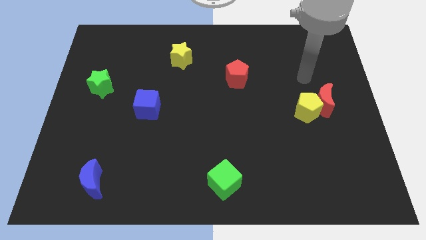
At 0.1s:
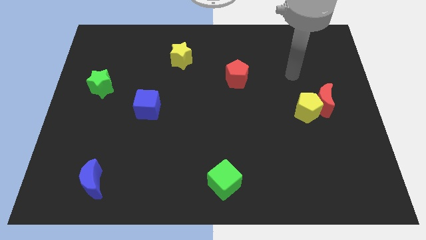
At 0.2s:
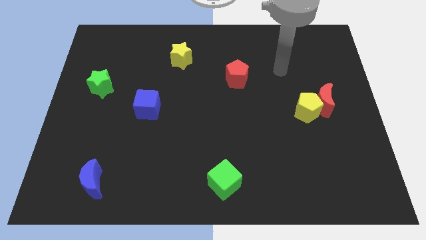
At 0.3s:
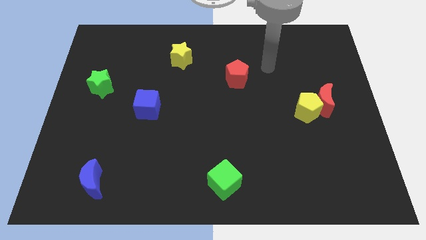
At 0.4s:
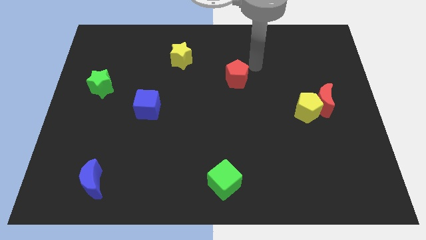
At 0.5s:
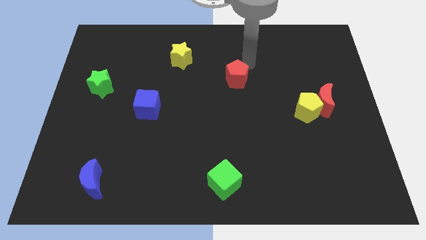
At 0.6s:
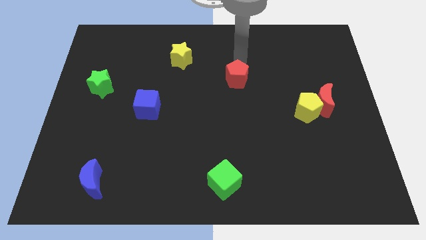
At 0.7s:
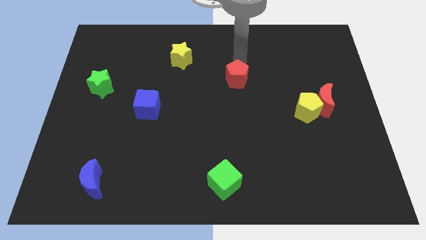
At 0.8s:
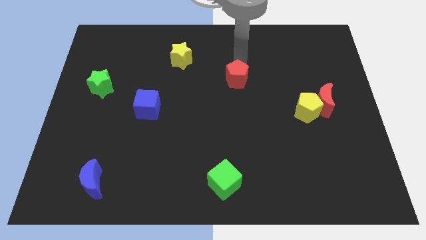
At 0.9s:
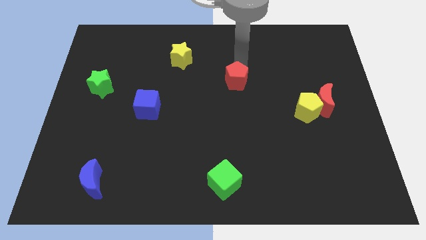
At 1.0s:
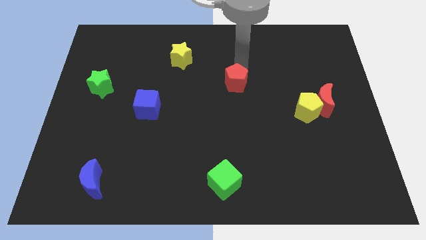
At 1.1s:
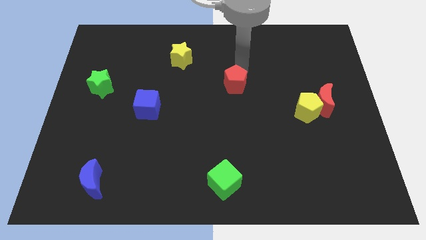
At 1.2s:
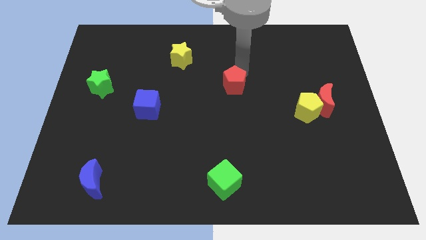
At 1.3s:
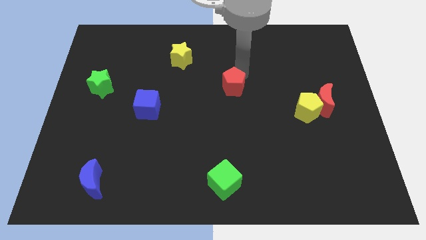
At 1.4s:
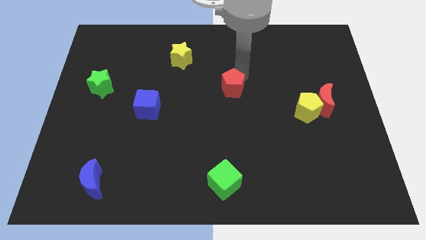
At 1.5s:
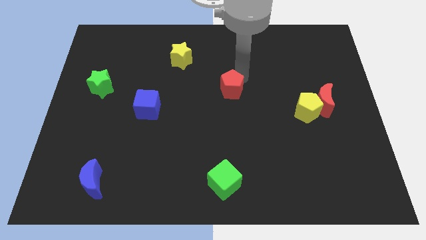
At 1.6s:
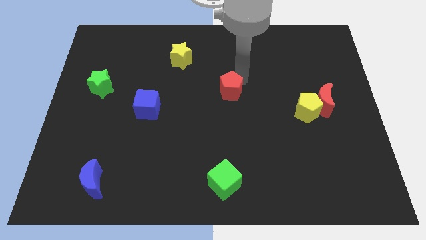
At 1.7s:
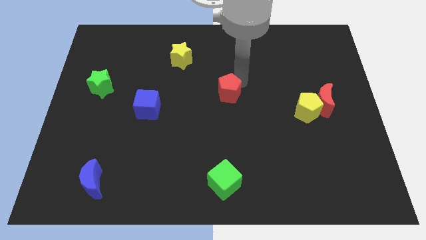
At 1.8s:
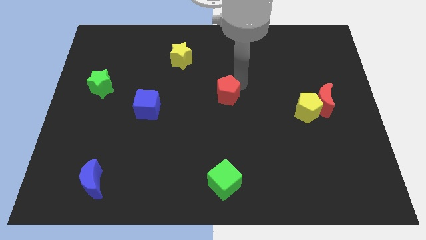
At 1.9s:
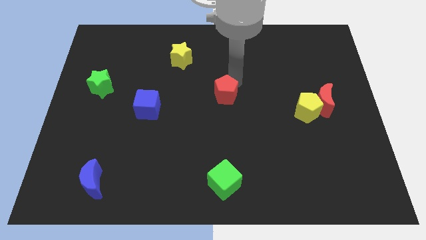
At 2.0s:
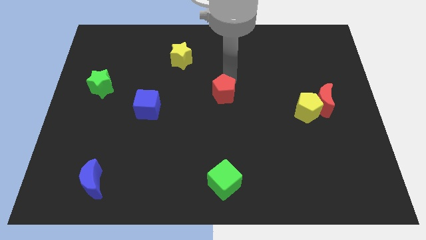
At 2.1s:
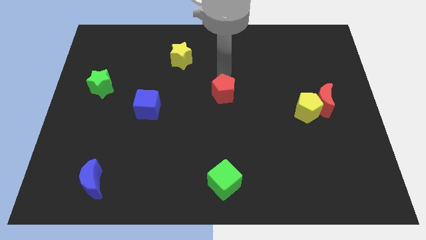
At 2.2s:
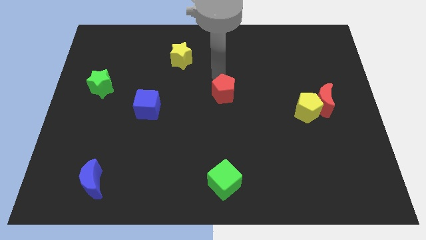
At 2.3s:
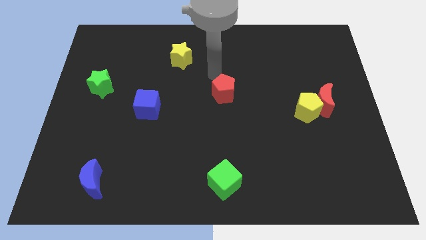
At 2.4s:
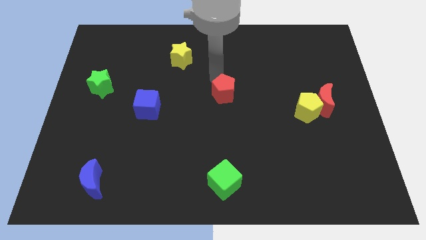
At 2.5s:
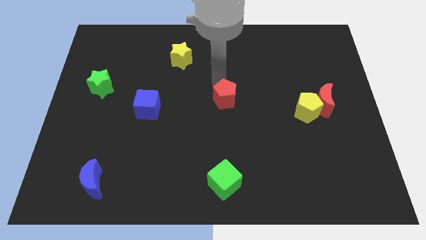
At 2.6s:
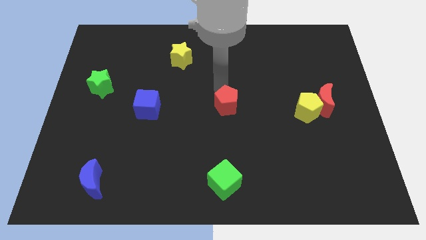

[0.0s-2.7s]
slightly slide the red pentagon down

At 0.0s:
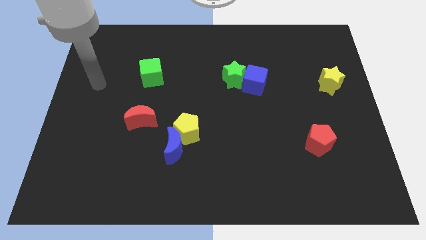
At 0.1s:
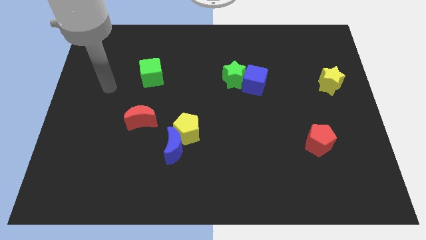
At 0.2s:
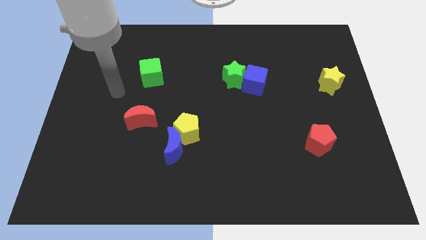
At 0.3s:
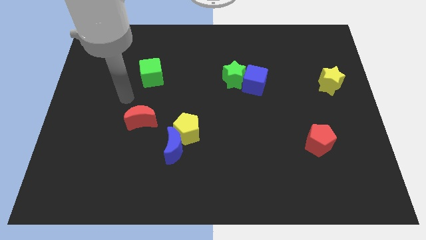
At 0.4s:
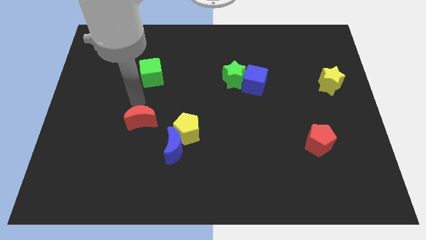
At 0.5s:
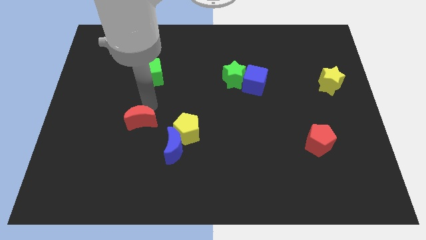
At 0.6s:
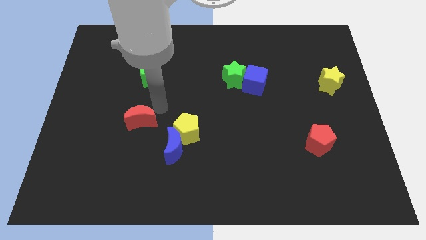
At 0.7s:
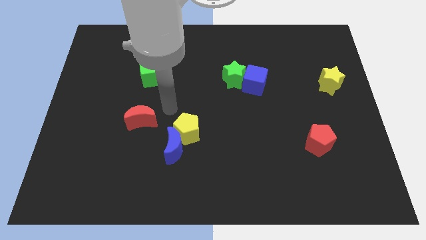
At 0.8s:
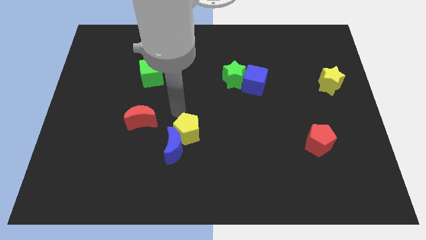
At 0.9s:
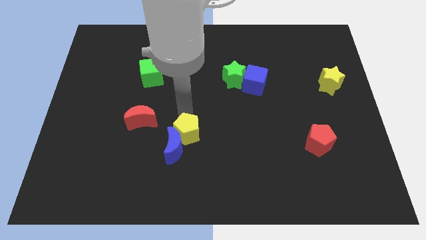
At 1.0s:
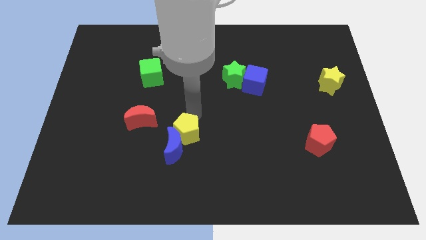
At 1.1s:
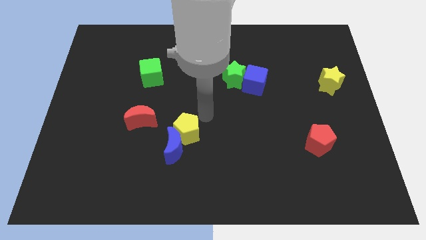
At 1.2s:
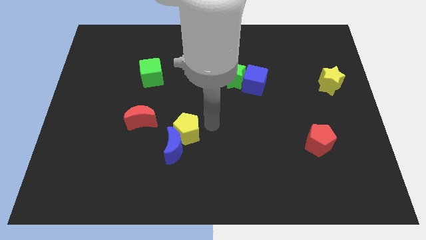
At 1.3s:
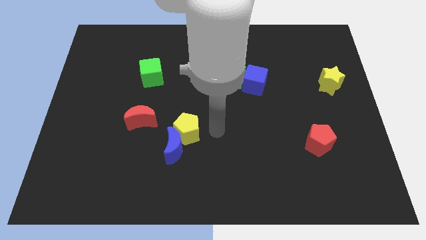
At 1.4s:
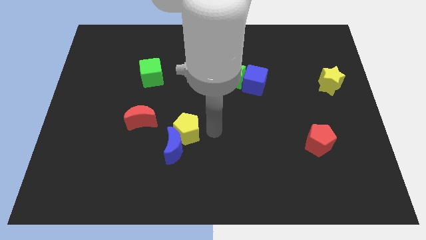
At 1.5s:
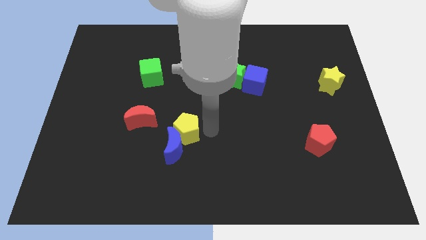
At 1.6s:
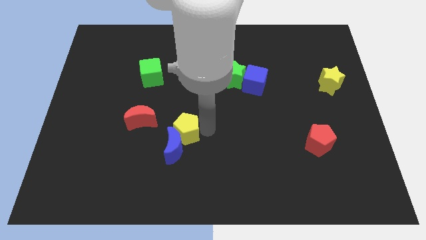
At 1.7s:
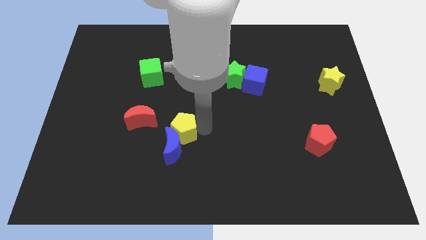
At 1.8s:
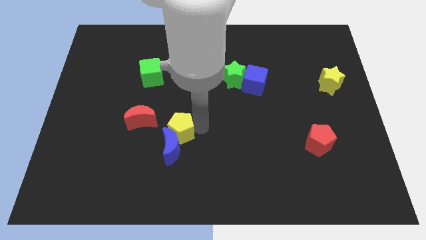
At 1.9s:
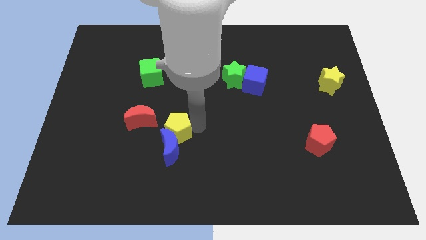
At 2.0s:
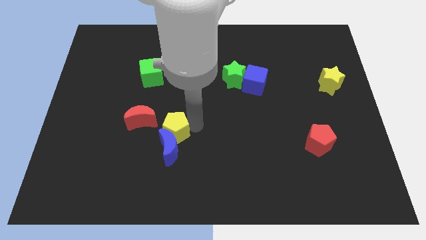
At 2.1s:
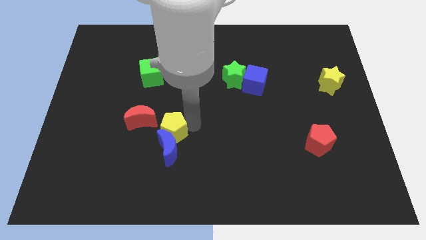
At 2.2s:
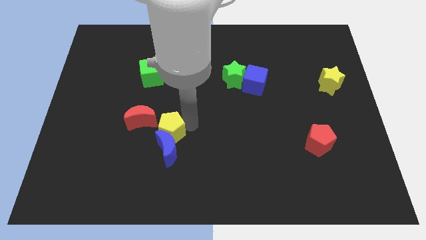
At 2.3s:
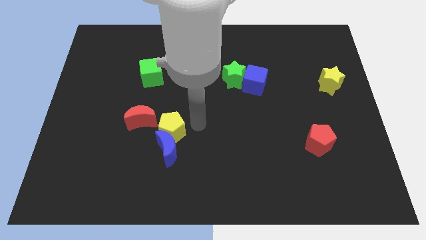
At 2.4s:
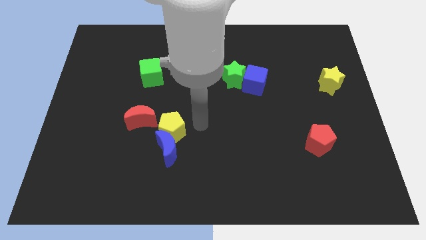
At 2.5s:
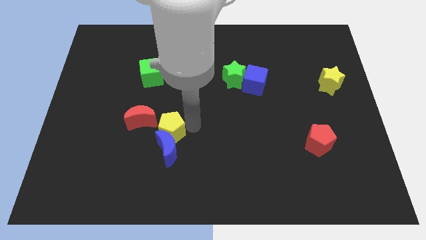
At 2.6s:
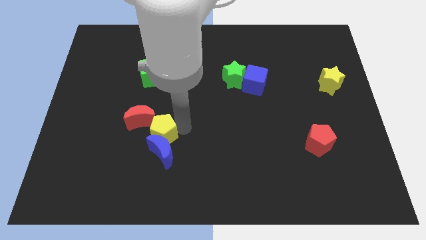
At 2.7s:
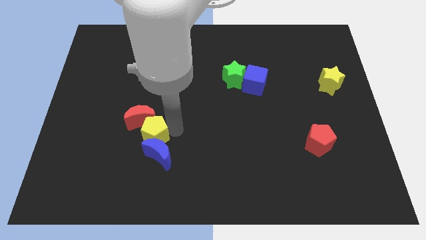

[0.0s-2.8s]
slightly push the yellow pentagon left

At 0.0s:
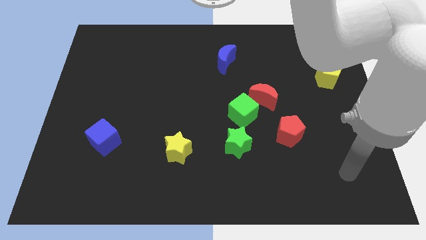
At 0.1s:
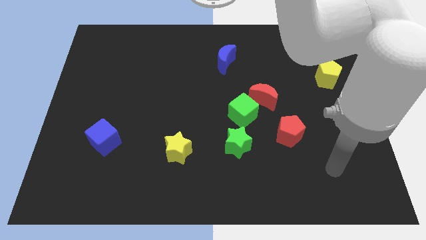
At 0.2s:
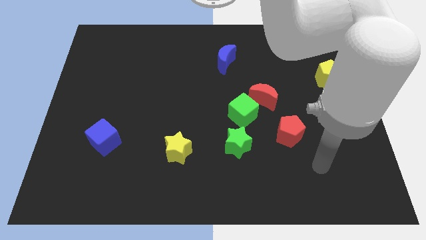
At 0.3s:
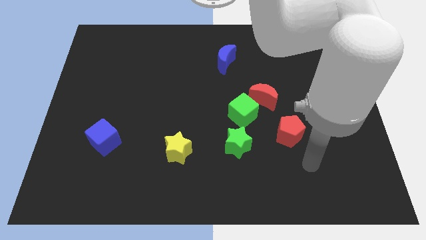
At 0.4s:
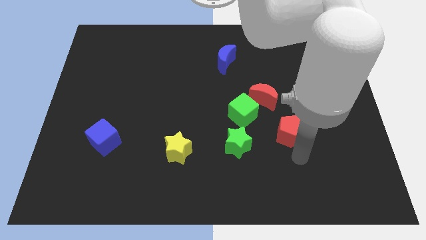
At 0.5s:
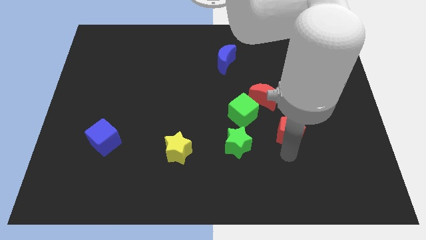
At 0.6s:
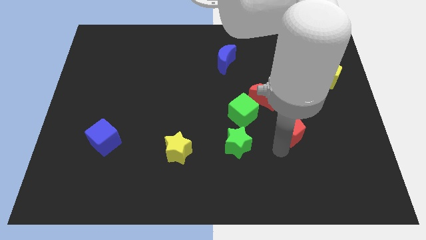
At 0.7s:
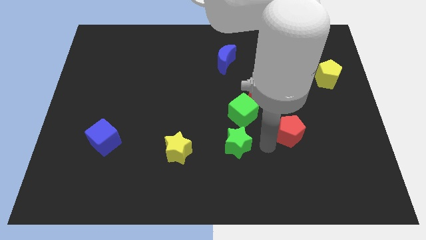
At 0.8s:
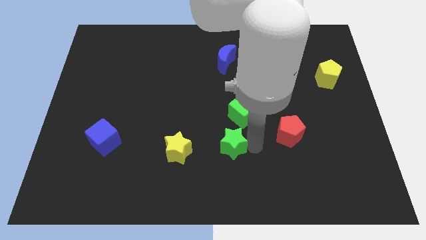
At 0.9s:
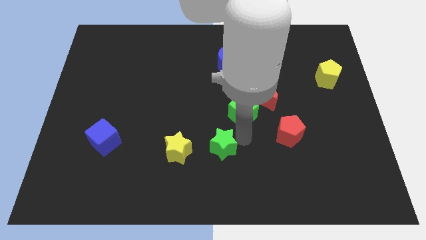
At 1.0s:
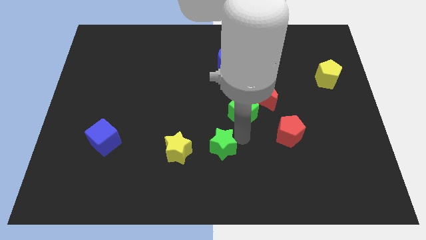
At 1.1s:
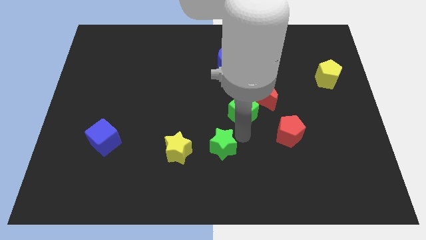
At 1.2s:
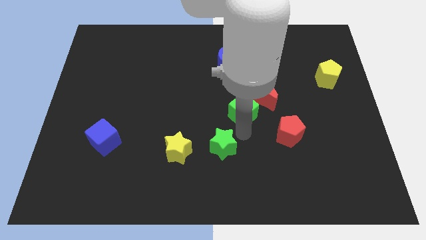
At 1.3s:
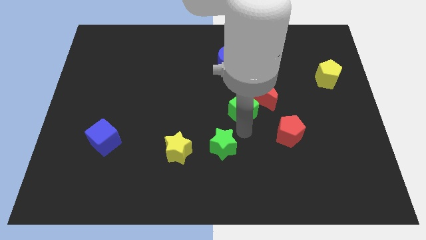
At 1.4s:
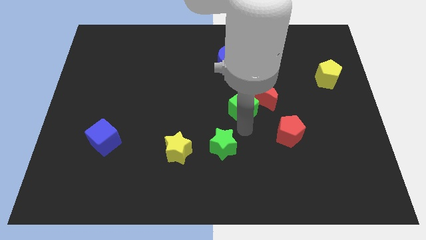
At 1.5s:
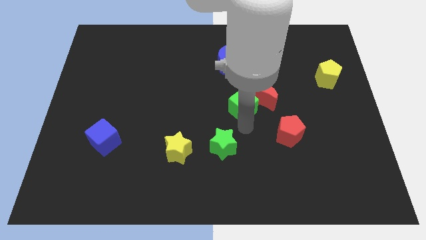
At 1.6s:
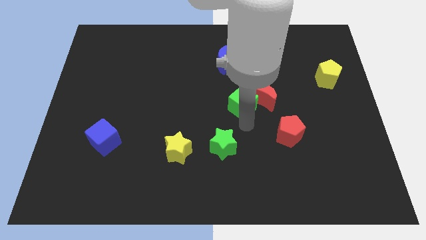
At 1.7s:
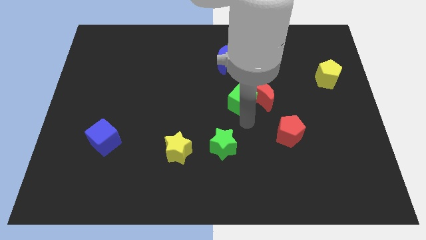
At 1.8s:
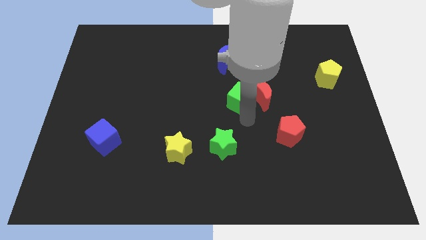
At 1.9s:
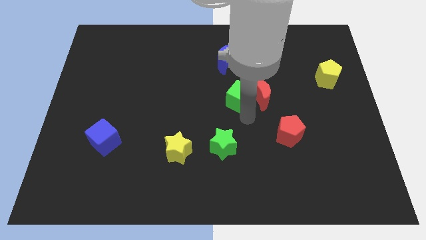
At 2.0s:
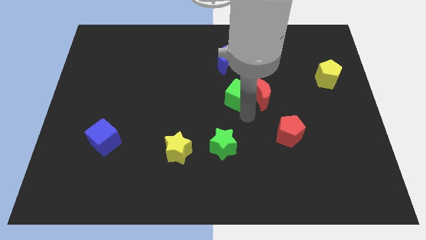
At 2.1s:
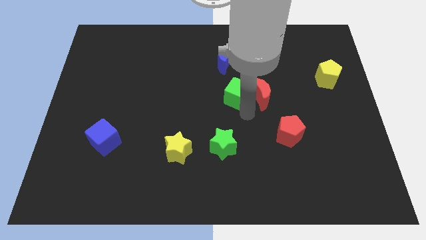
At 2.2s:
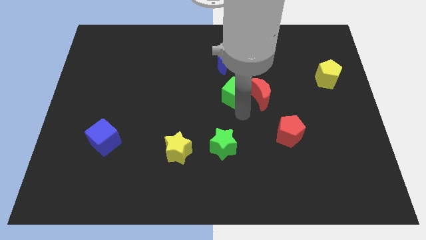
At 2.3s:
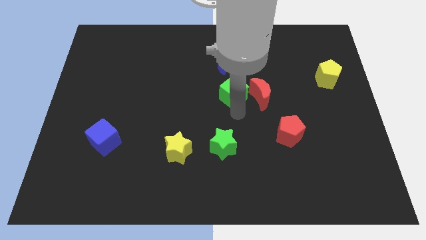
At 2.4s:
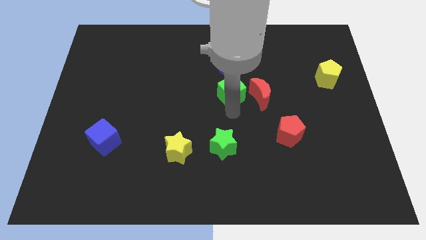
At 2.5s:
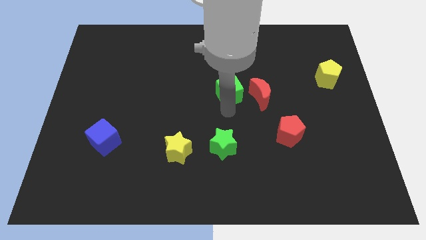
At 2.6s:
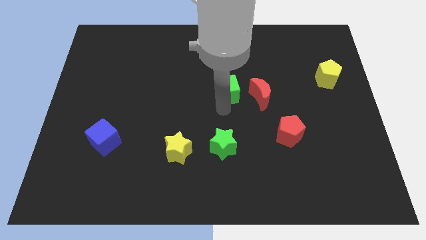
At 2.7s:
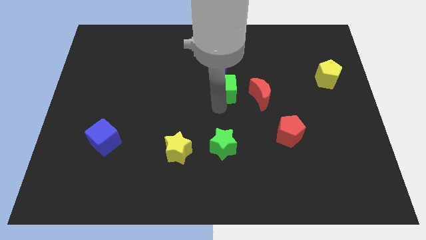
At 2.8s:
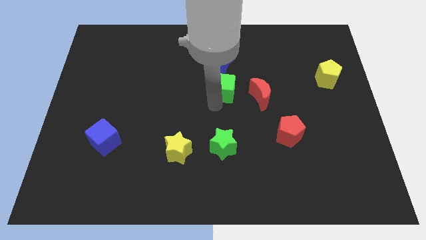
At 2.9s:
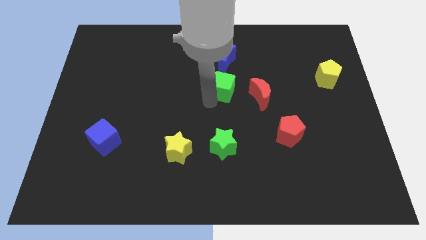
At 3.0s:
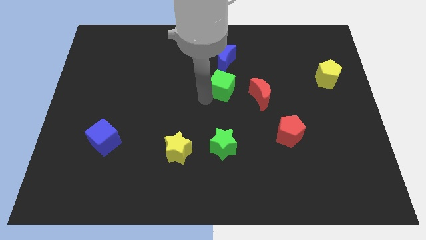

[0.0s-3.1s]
slightly slide the green cube upwards
